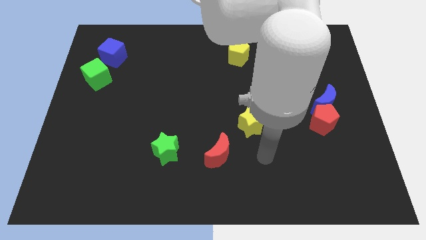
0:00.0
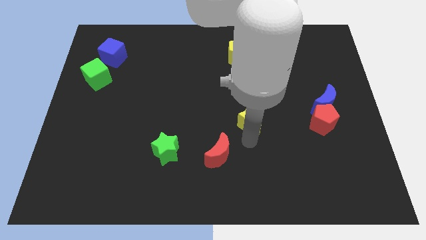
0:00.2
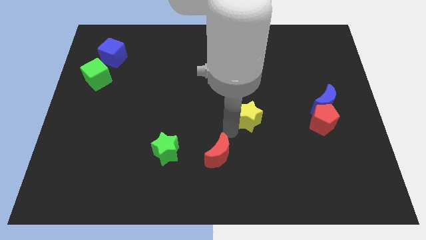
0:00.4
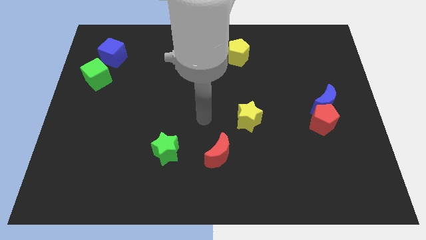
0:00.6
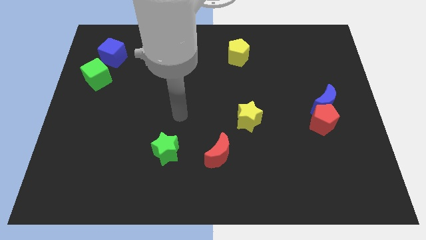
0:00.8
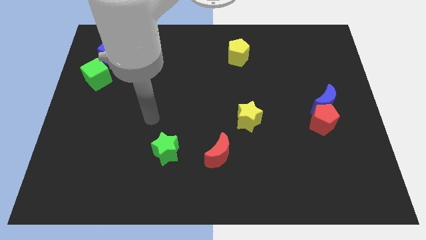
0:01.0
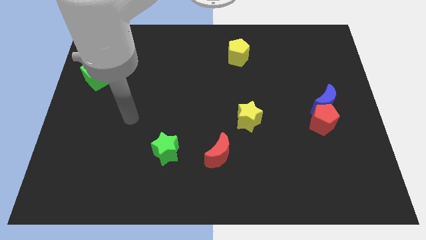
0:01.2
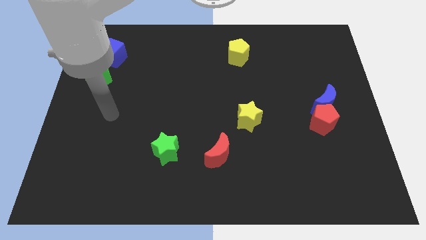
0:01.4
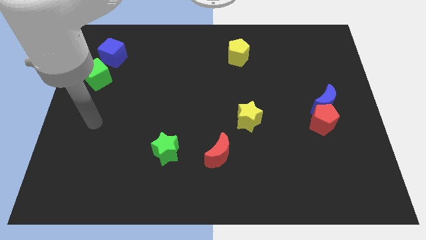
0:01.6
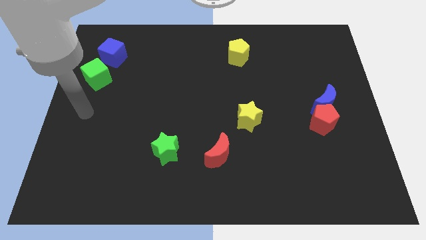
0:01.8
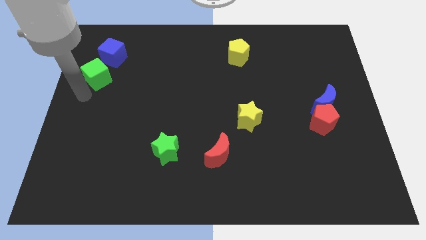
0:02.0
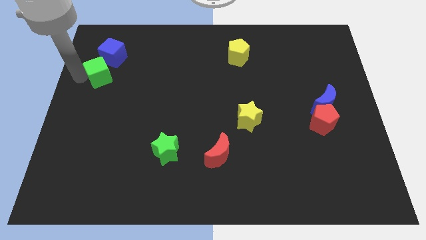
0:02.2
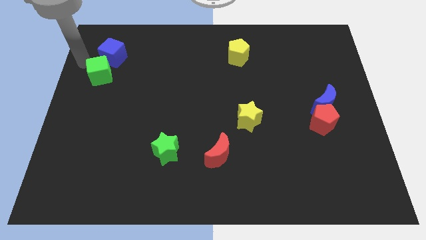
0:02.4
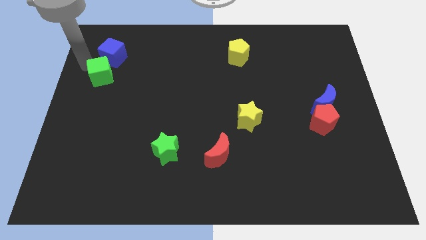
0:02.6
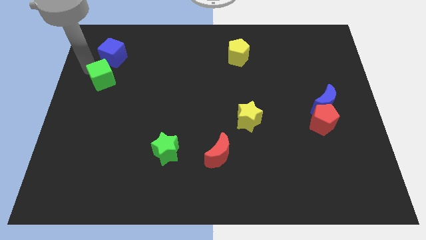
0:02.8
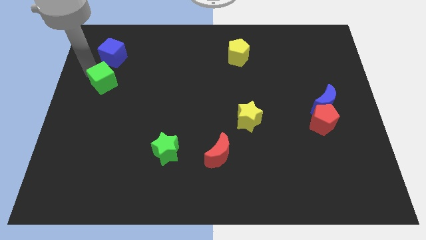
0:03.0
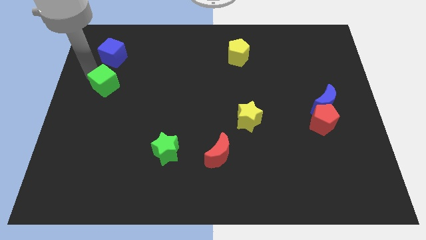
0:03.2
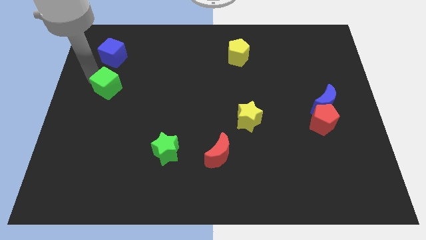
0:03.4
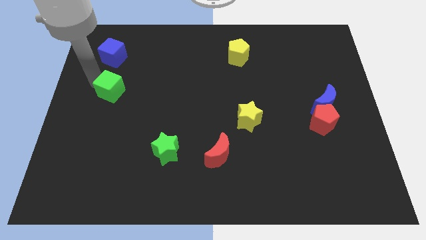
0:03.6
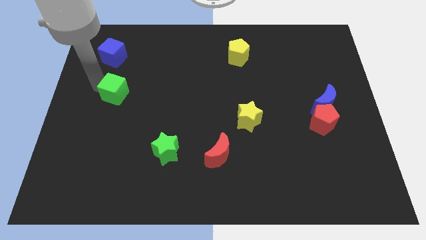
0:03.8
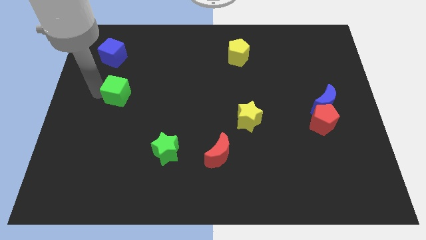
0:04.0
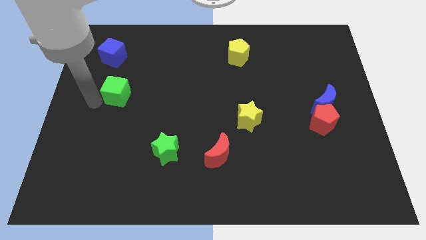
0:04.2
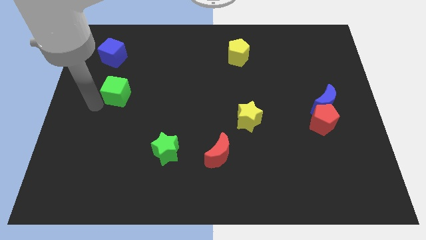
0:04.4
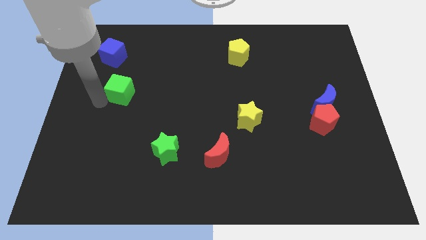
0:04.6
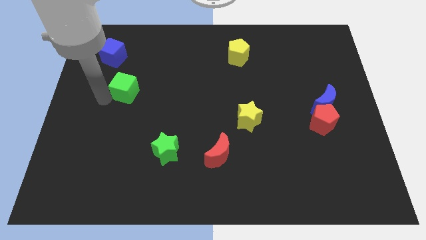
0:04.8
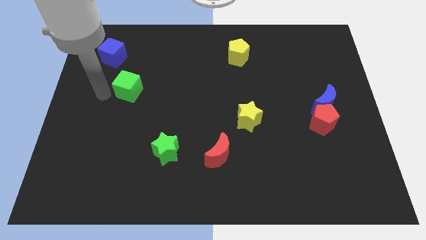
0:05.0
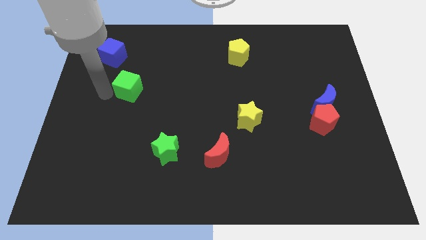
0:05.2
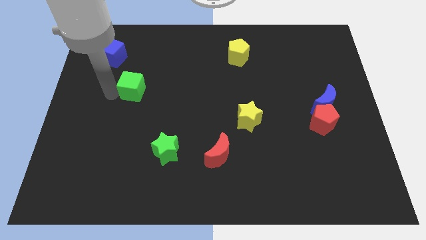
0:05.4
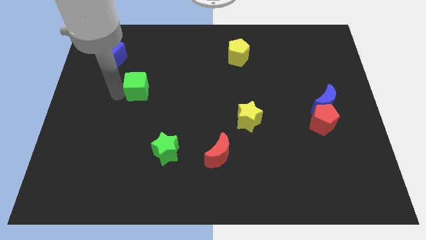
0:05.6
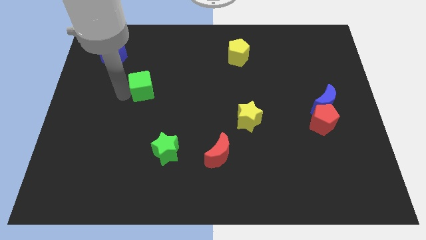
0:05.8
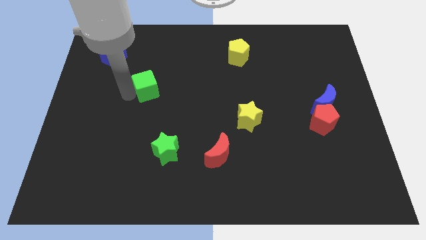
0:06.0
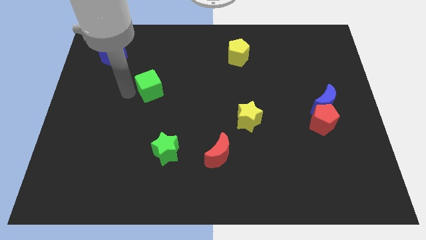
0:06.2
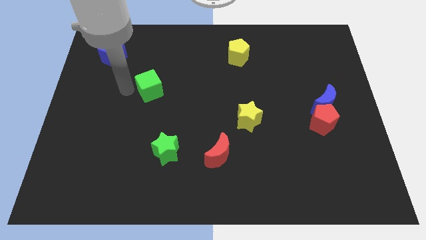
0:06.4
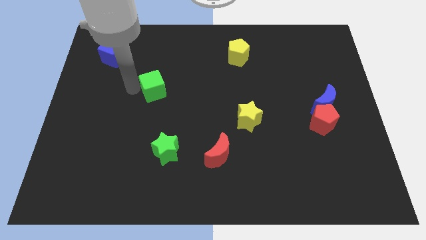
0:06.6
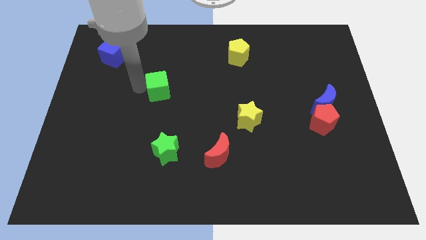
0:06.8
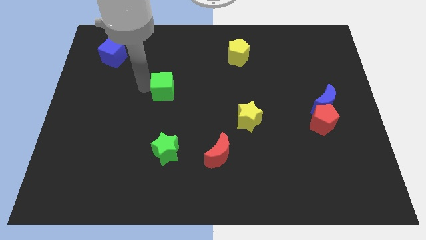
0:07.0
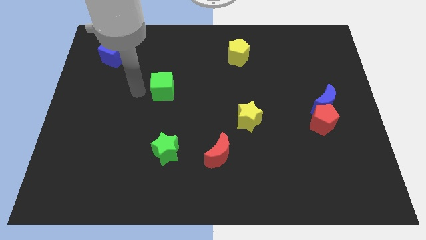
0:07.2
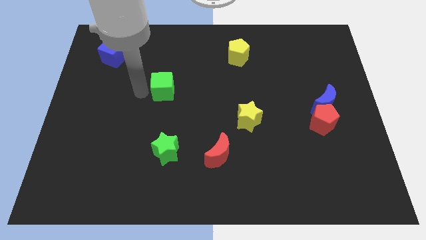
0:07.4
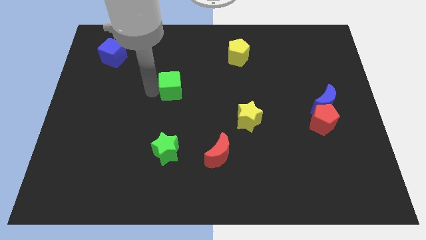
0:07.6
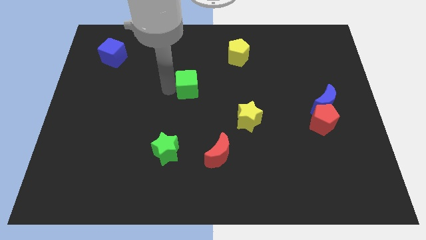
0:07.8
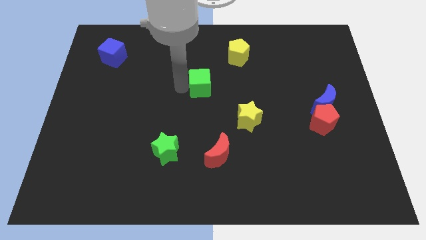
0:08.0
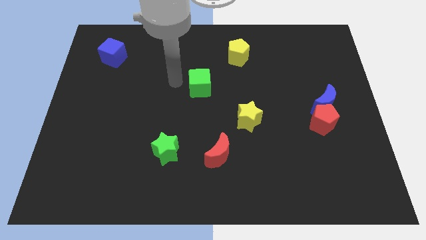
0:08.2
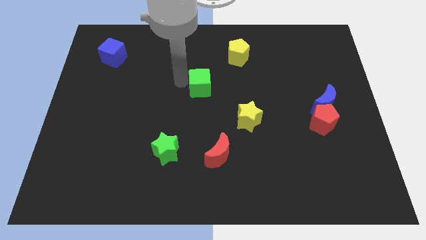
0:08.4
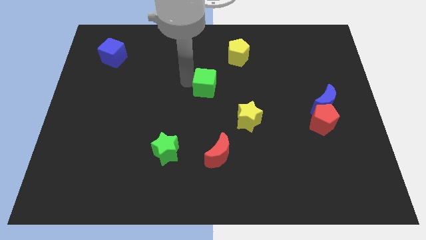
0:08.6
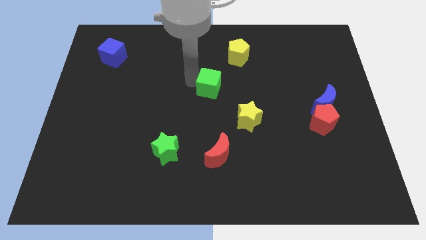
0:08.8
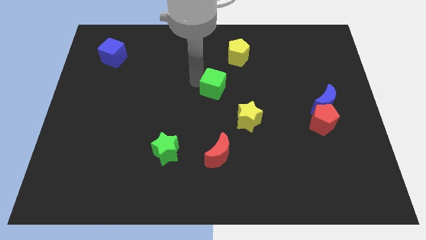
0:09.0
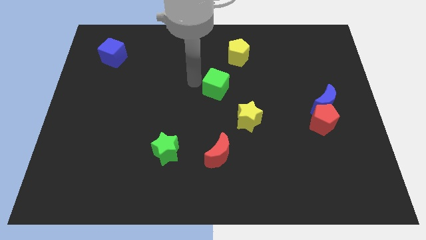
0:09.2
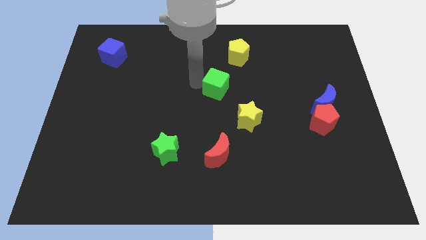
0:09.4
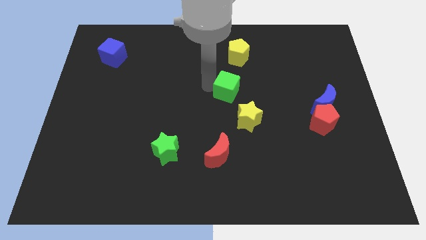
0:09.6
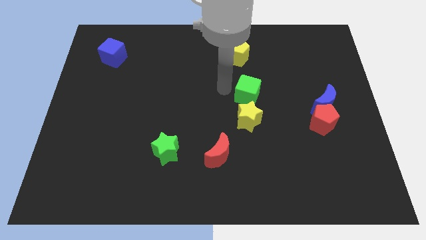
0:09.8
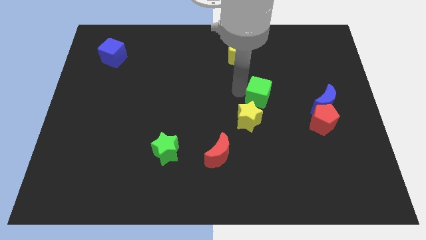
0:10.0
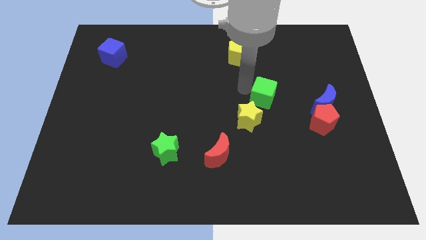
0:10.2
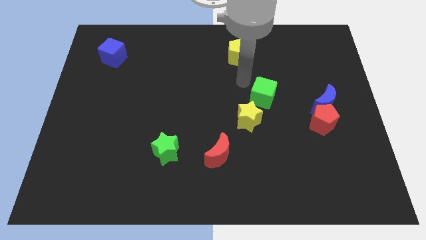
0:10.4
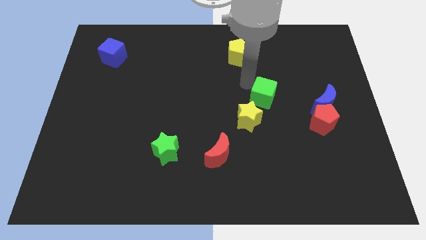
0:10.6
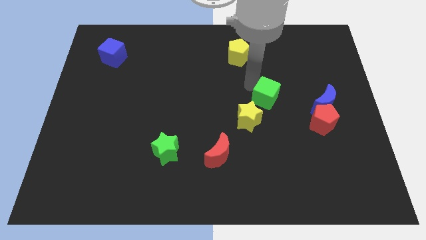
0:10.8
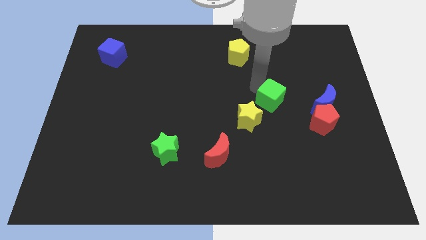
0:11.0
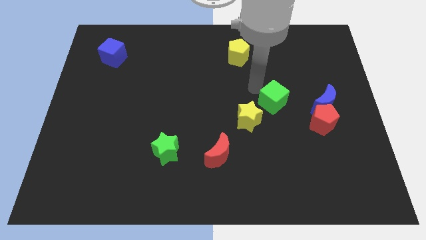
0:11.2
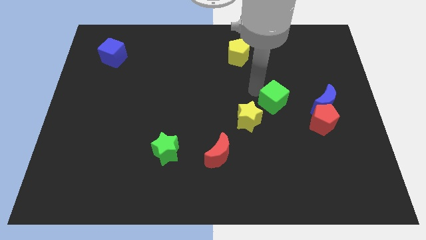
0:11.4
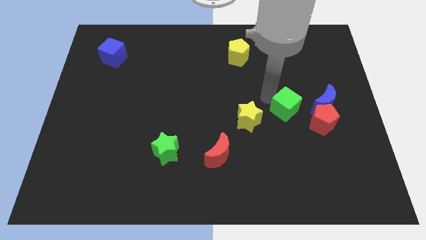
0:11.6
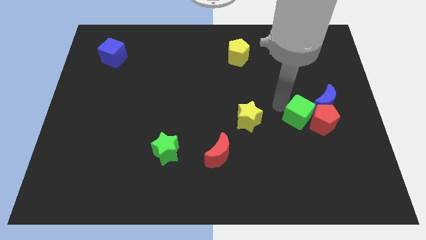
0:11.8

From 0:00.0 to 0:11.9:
push the green cube towards the red pentagon

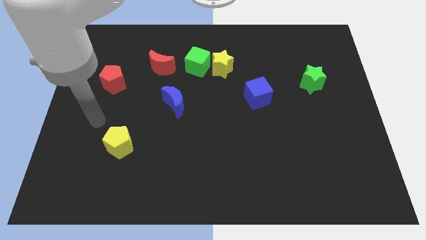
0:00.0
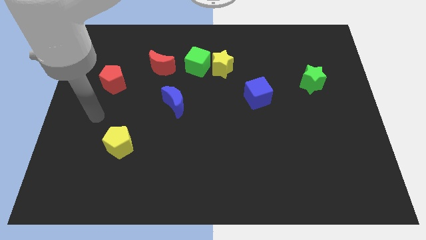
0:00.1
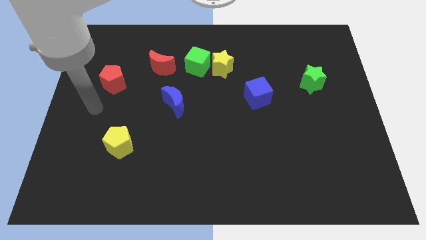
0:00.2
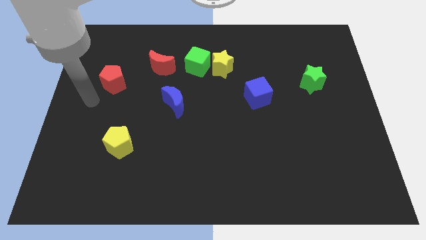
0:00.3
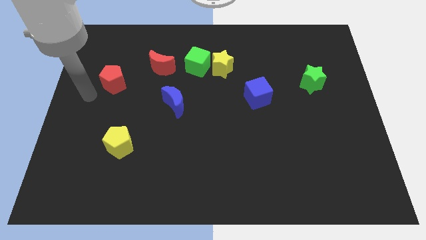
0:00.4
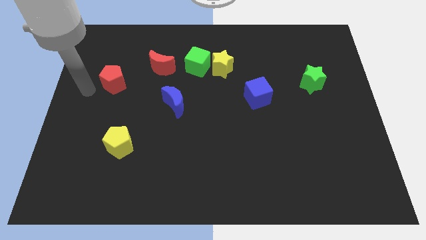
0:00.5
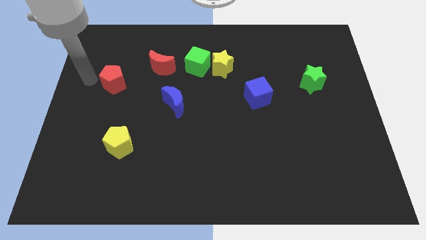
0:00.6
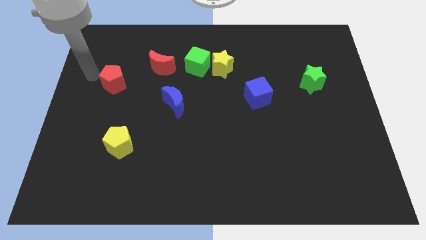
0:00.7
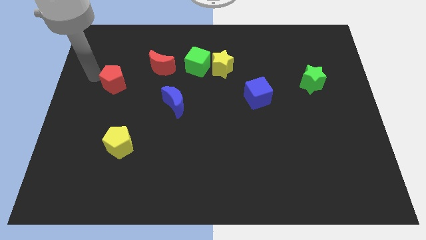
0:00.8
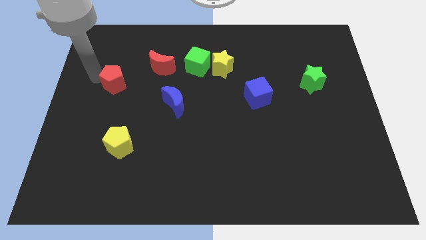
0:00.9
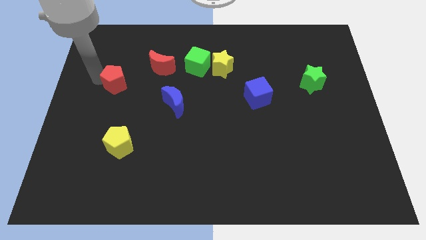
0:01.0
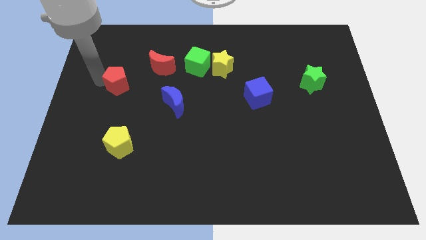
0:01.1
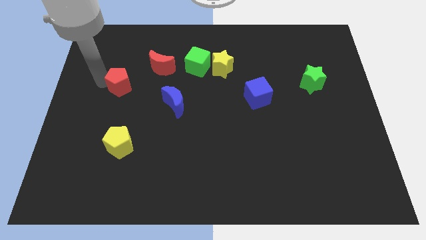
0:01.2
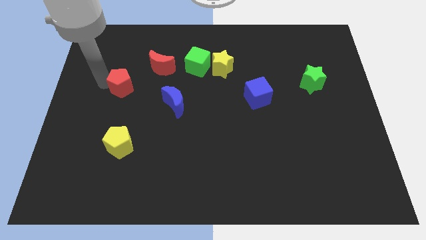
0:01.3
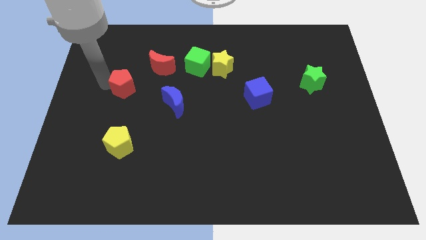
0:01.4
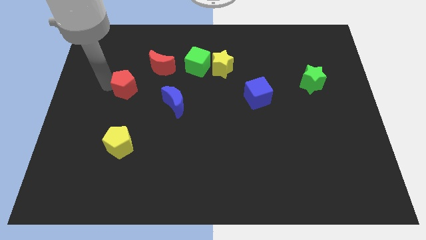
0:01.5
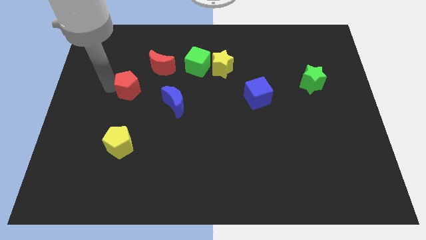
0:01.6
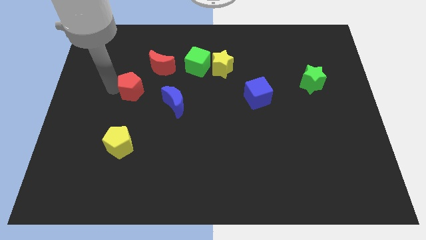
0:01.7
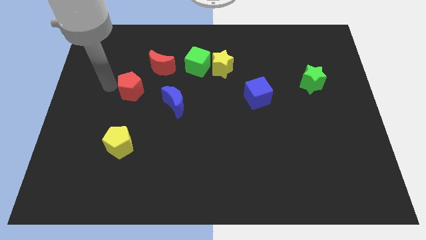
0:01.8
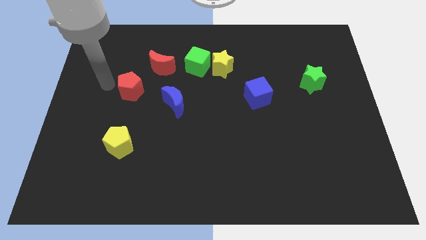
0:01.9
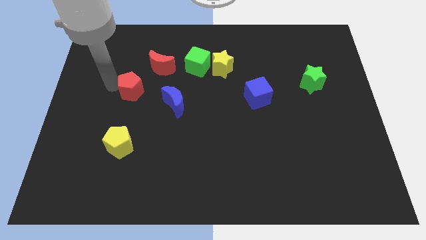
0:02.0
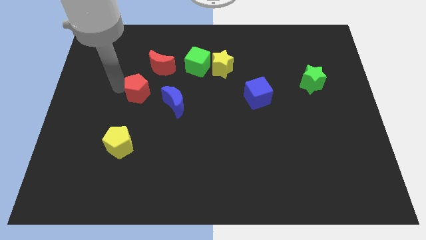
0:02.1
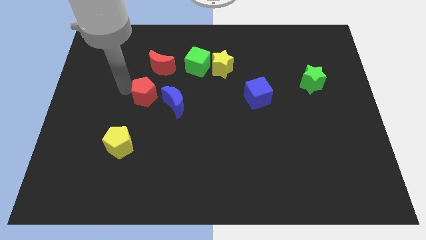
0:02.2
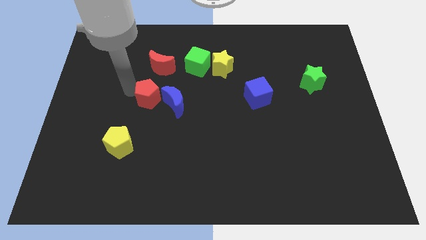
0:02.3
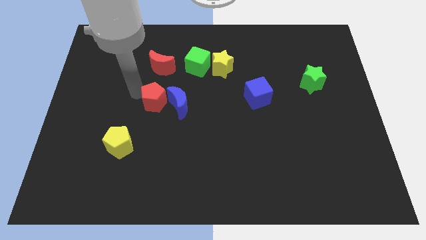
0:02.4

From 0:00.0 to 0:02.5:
slide the red pentagon towards the blue moon
